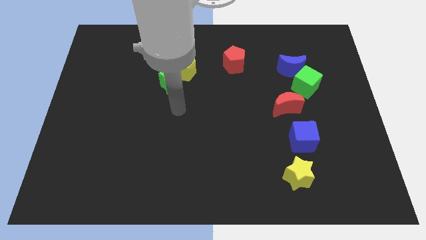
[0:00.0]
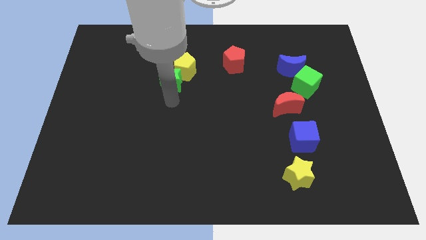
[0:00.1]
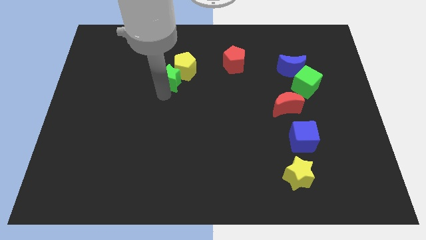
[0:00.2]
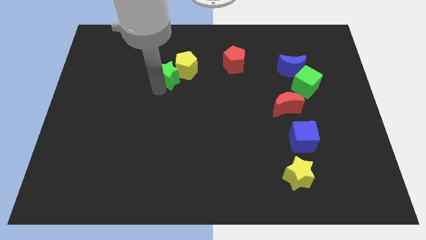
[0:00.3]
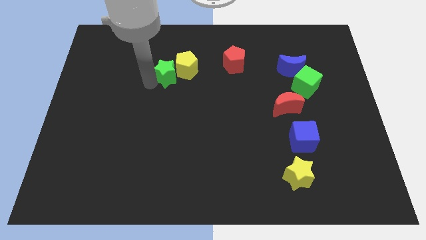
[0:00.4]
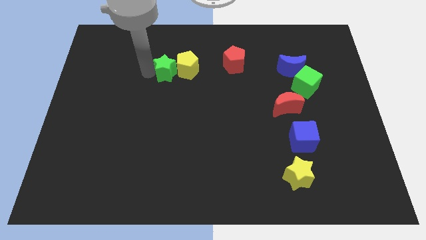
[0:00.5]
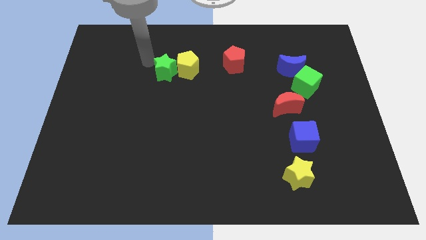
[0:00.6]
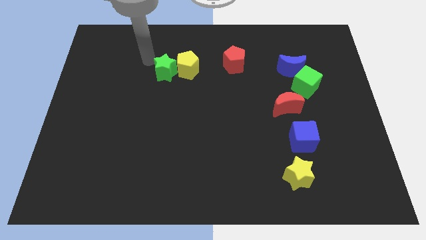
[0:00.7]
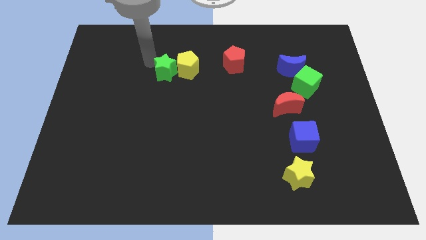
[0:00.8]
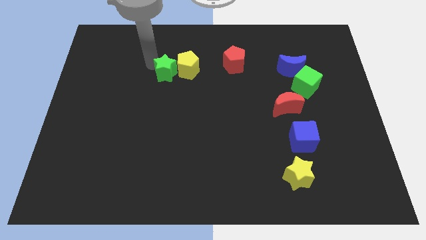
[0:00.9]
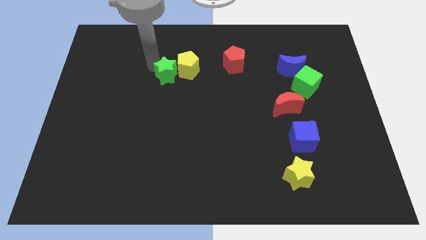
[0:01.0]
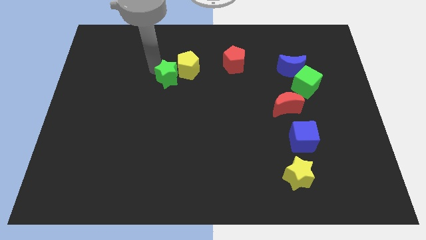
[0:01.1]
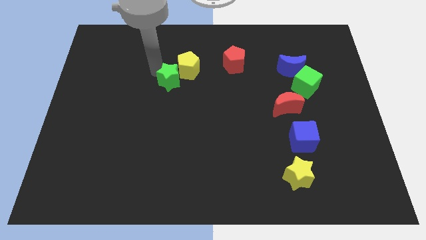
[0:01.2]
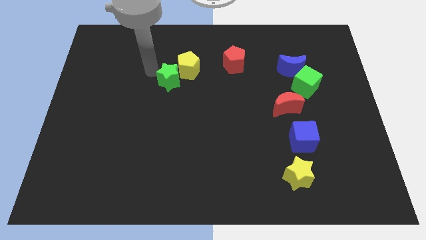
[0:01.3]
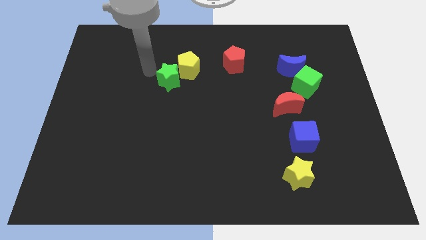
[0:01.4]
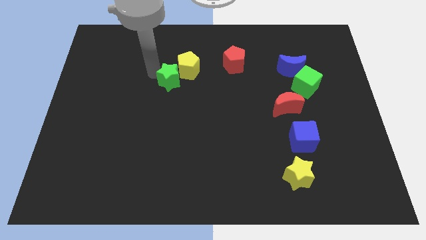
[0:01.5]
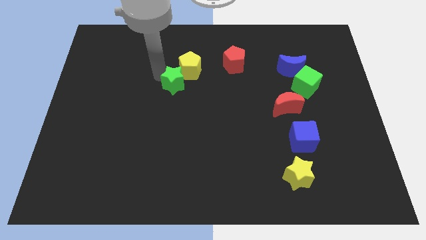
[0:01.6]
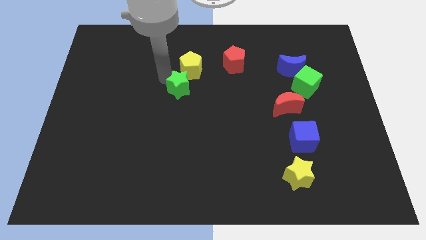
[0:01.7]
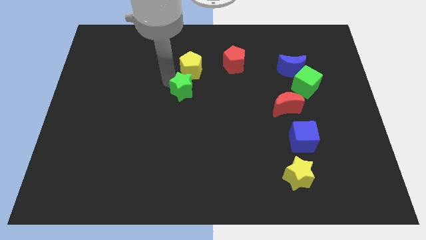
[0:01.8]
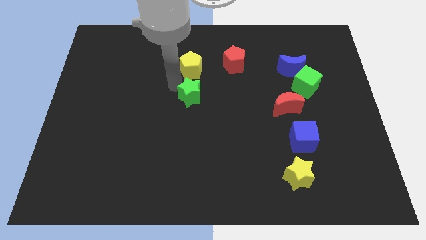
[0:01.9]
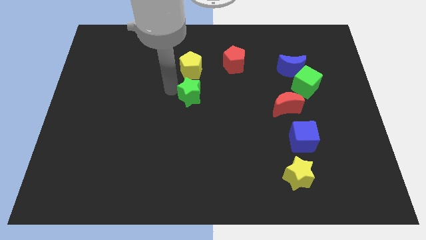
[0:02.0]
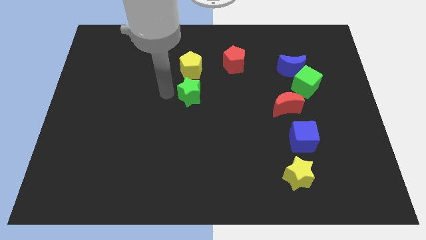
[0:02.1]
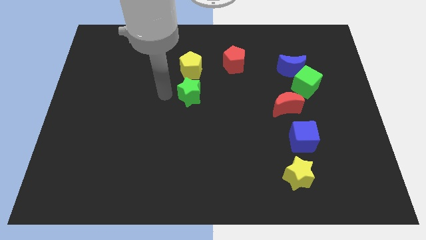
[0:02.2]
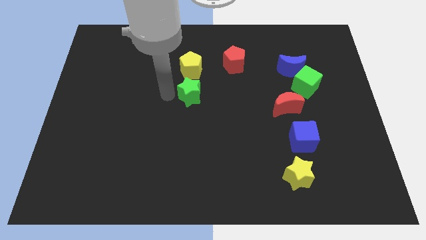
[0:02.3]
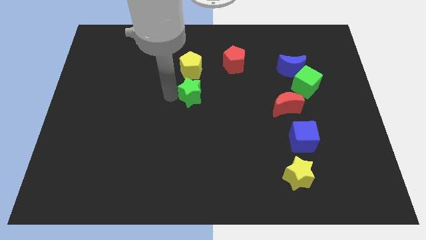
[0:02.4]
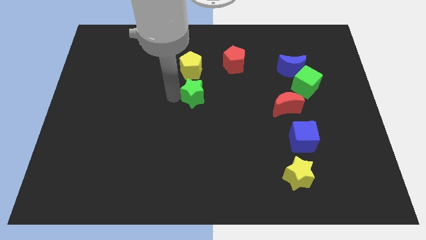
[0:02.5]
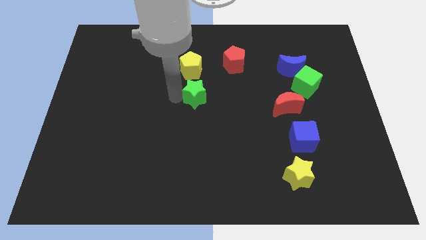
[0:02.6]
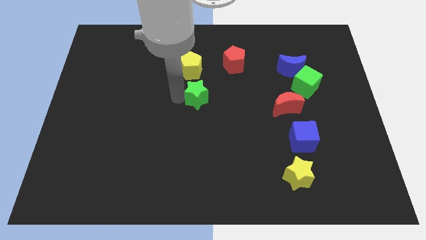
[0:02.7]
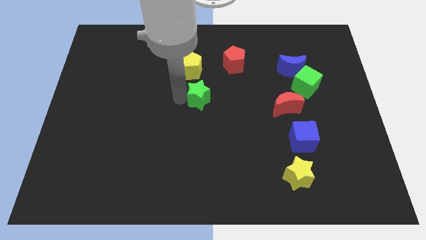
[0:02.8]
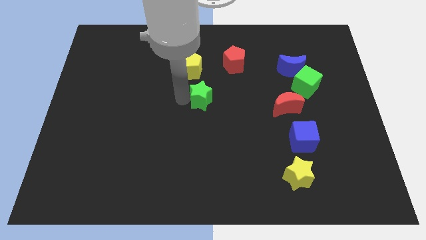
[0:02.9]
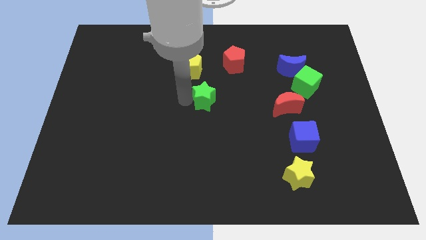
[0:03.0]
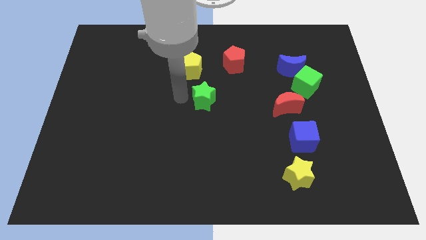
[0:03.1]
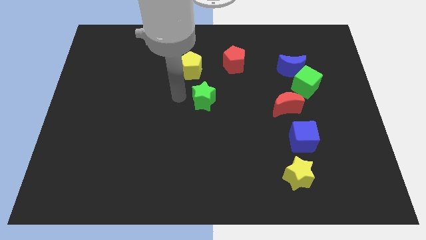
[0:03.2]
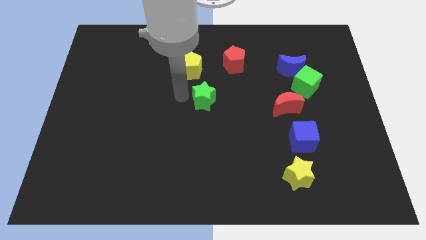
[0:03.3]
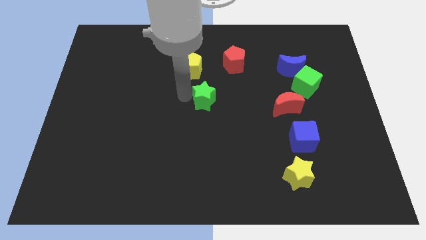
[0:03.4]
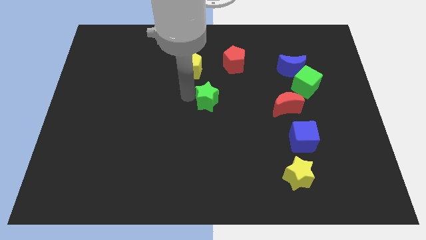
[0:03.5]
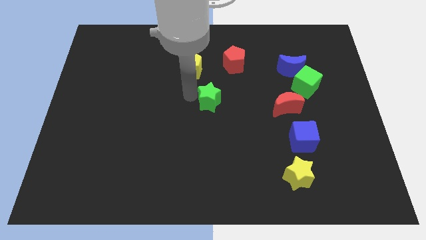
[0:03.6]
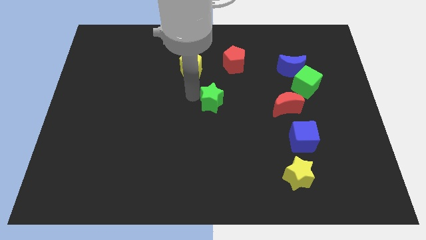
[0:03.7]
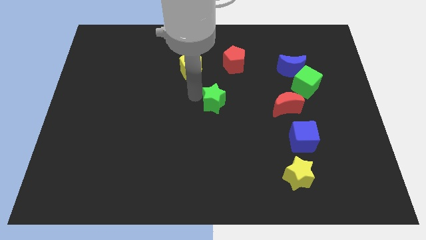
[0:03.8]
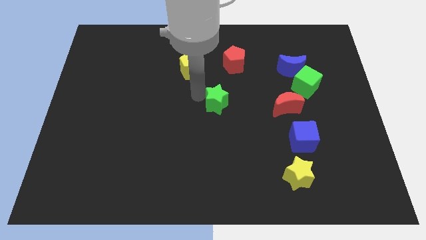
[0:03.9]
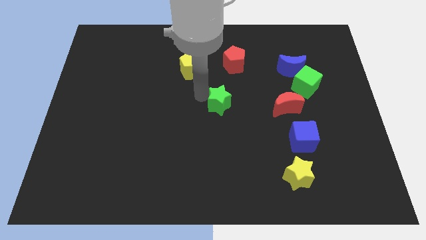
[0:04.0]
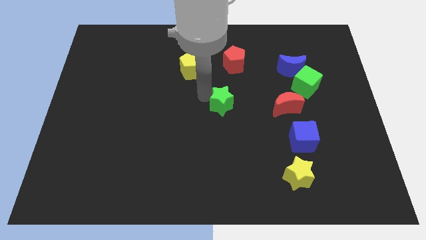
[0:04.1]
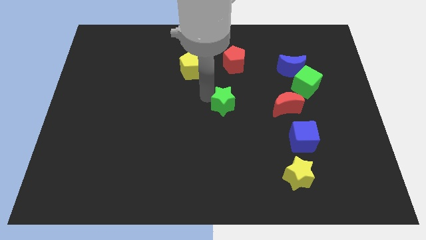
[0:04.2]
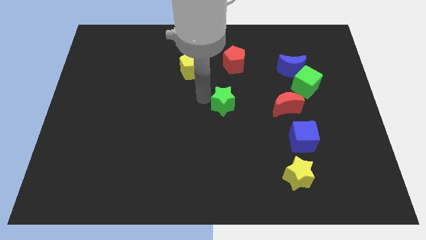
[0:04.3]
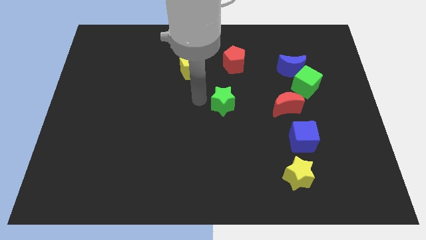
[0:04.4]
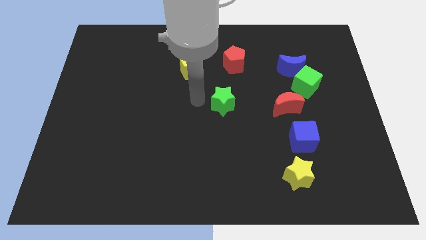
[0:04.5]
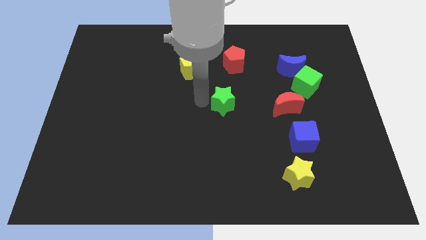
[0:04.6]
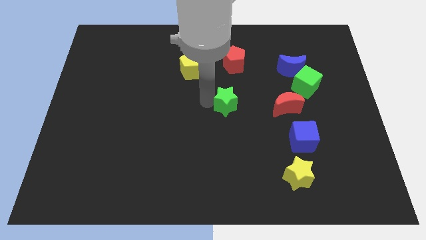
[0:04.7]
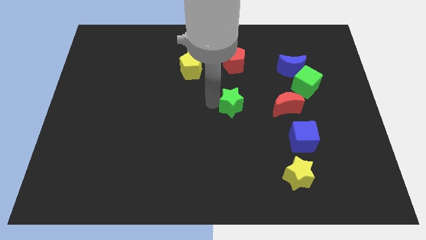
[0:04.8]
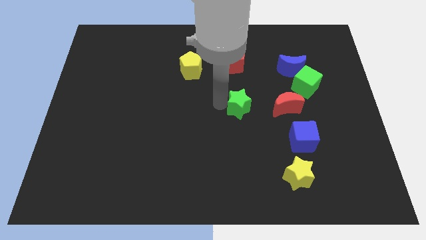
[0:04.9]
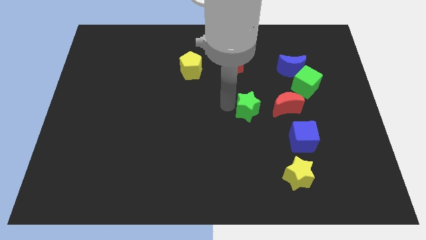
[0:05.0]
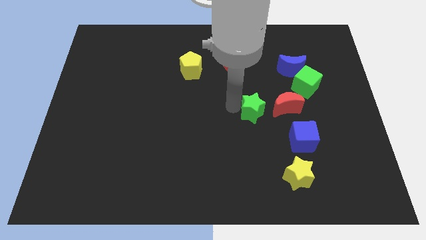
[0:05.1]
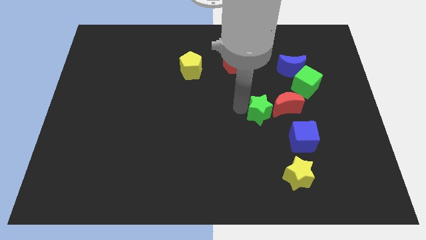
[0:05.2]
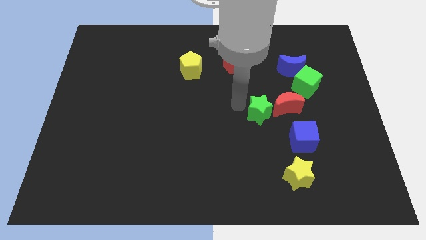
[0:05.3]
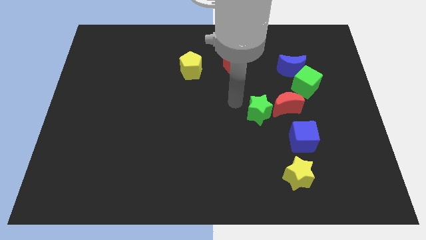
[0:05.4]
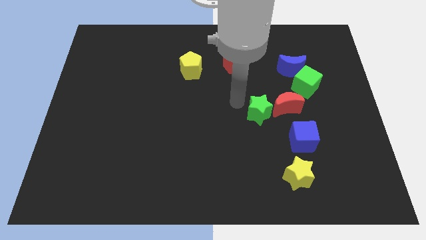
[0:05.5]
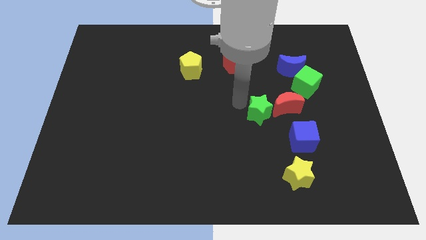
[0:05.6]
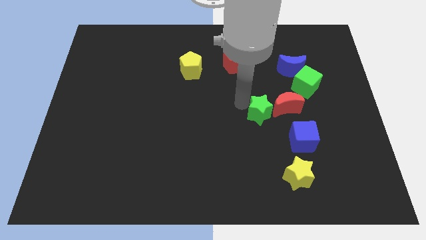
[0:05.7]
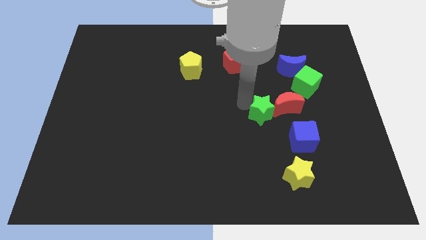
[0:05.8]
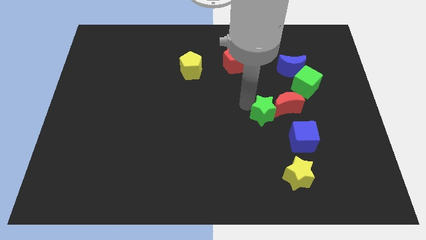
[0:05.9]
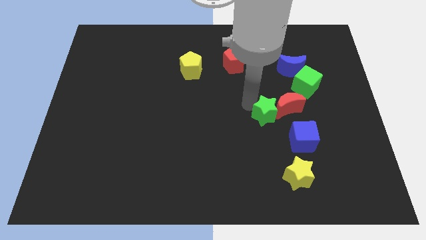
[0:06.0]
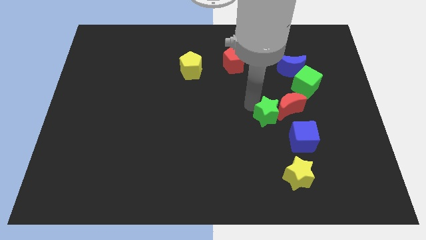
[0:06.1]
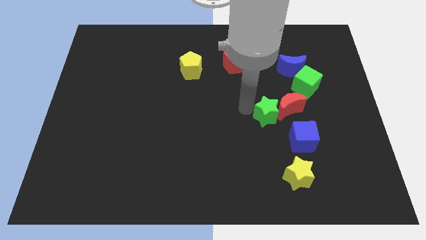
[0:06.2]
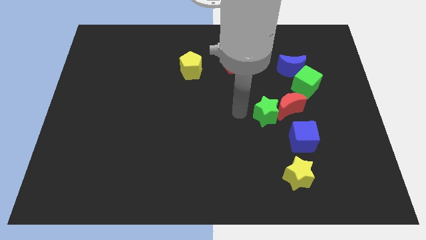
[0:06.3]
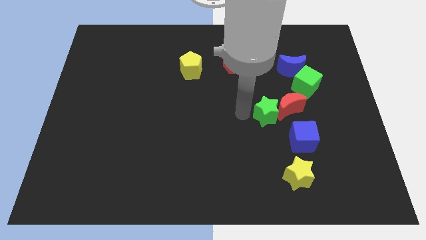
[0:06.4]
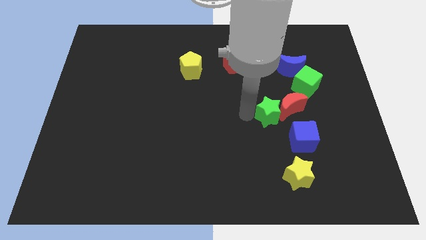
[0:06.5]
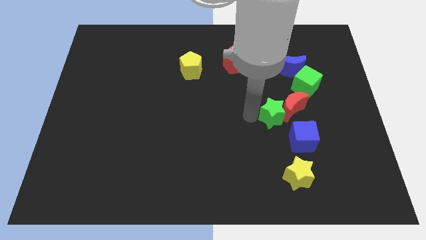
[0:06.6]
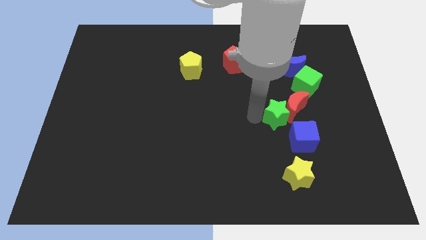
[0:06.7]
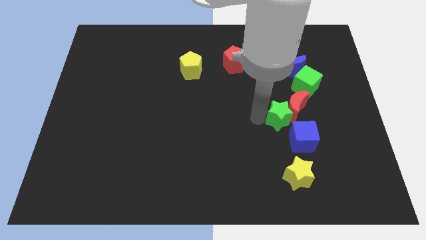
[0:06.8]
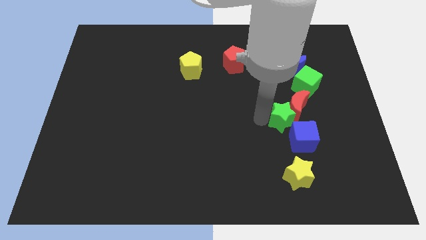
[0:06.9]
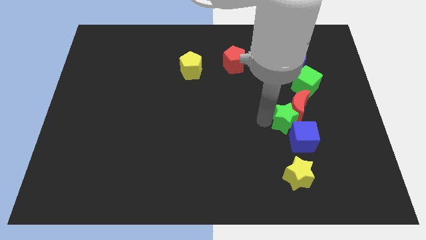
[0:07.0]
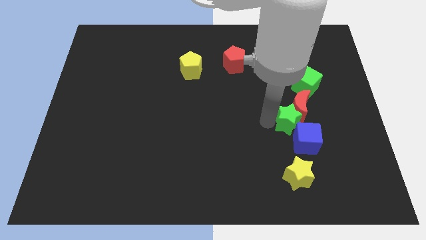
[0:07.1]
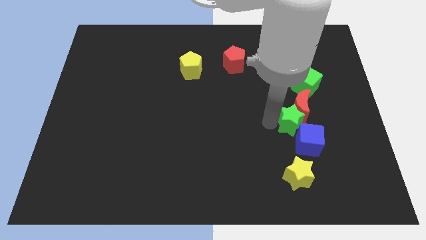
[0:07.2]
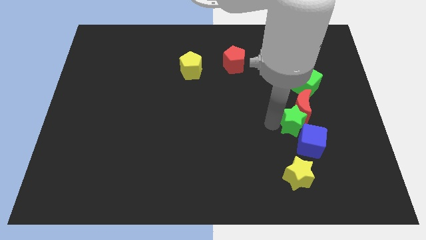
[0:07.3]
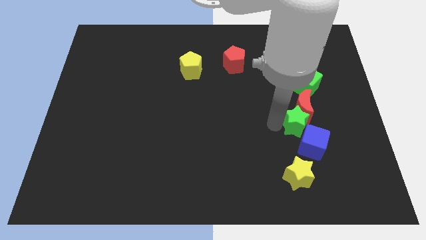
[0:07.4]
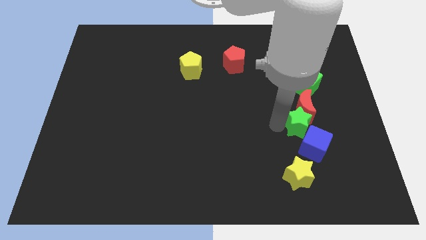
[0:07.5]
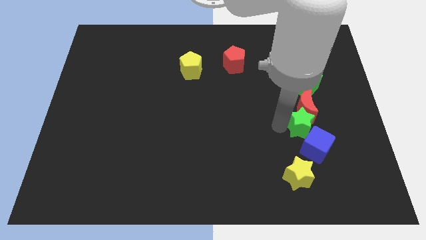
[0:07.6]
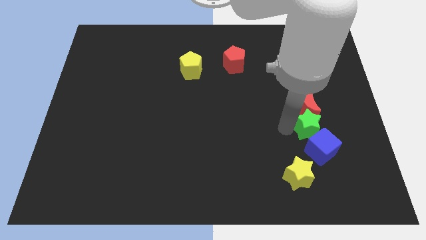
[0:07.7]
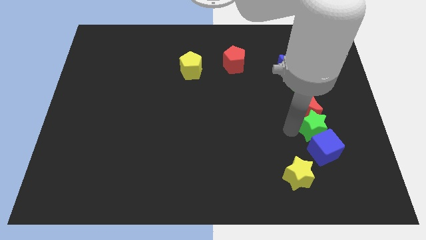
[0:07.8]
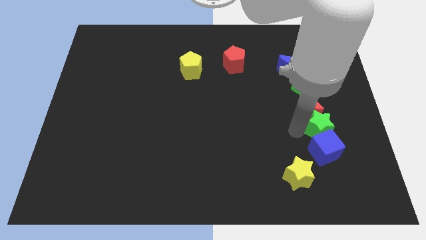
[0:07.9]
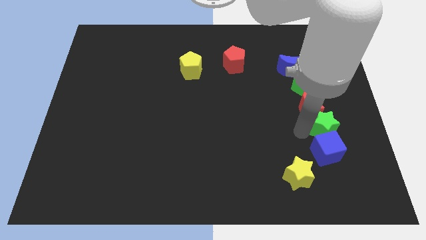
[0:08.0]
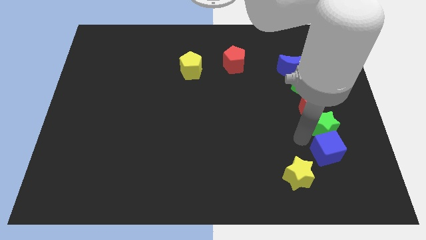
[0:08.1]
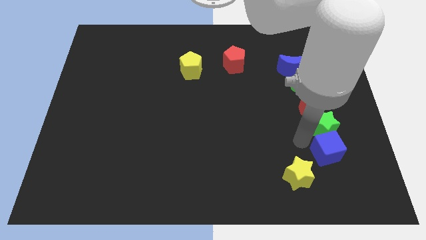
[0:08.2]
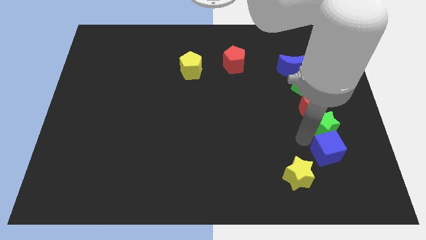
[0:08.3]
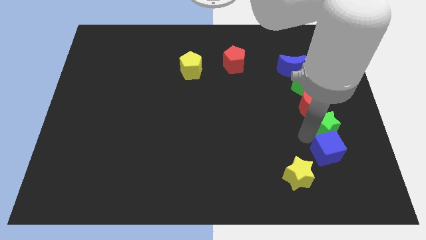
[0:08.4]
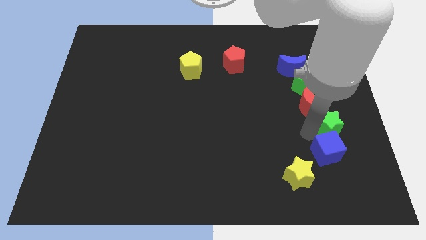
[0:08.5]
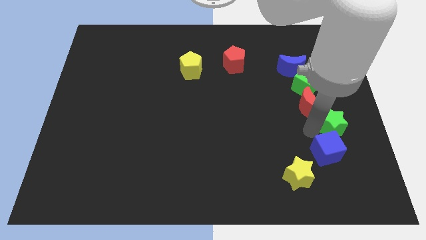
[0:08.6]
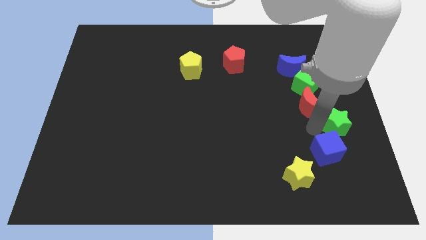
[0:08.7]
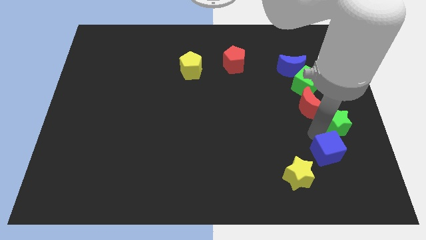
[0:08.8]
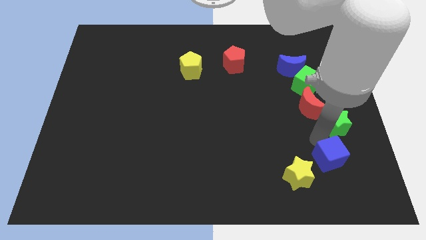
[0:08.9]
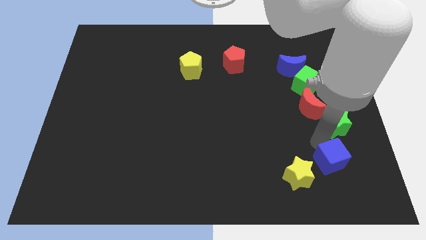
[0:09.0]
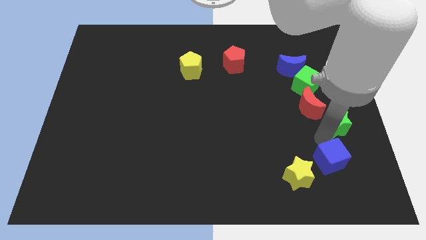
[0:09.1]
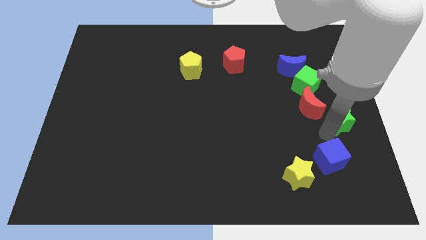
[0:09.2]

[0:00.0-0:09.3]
push the green star right of the red moon
